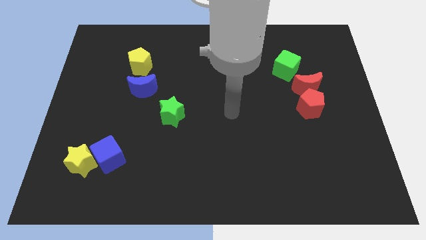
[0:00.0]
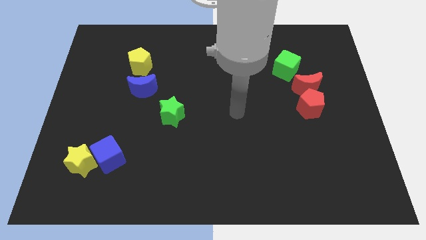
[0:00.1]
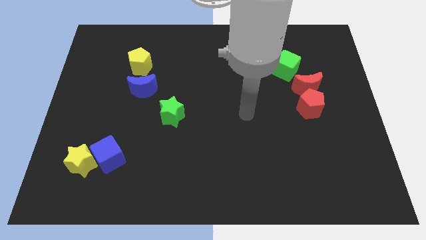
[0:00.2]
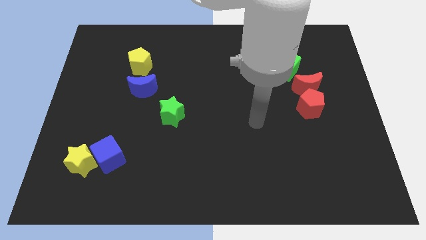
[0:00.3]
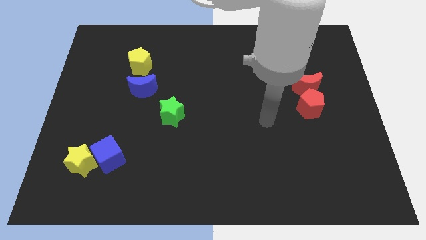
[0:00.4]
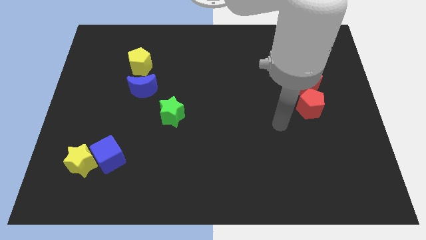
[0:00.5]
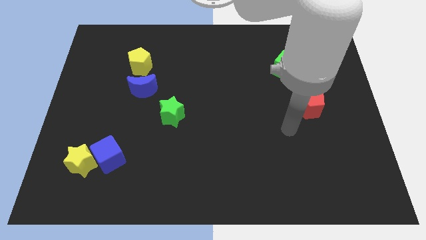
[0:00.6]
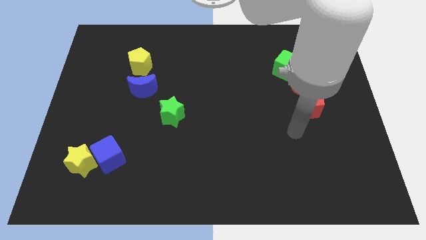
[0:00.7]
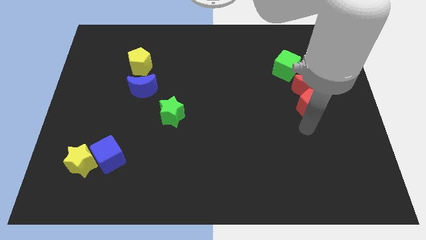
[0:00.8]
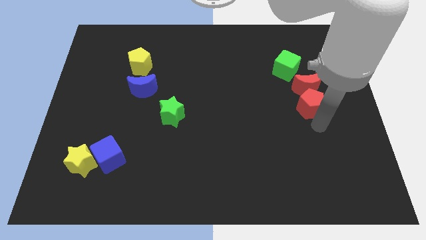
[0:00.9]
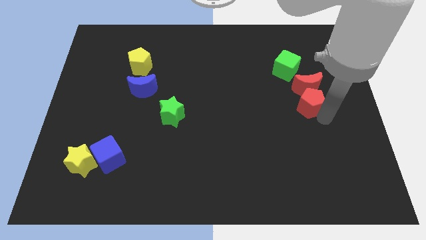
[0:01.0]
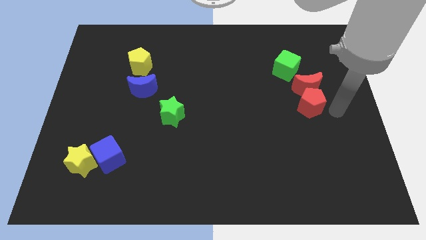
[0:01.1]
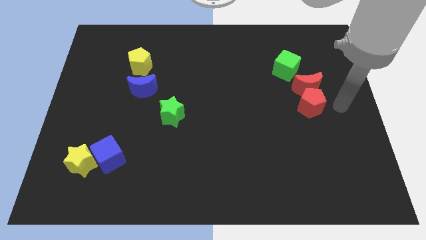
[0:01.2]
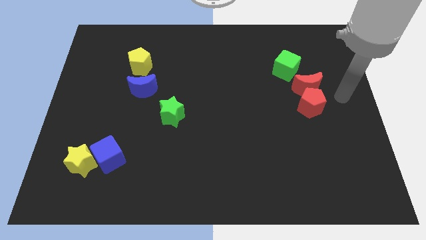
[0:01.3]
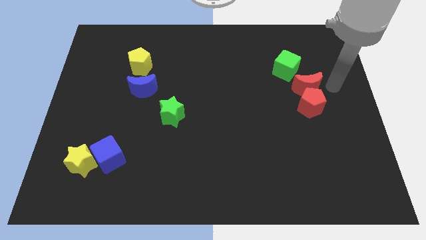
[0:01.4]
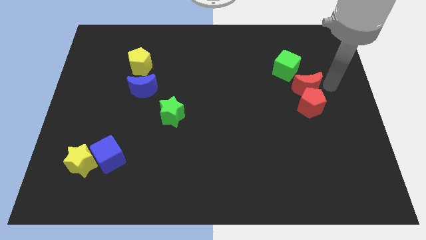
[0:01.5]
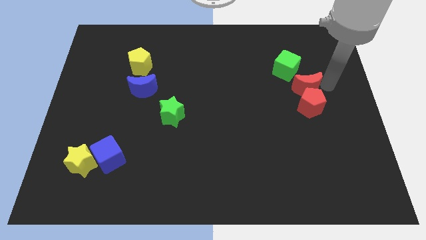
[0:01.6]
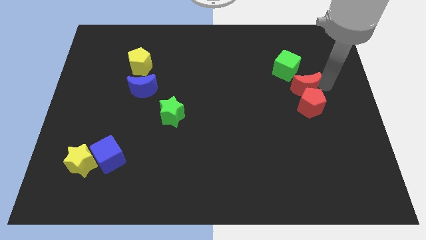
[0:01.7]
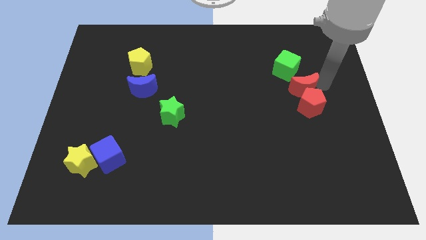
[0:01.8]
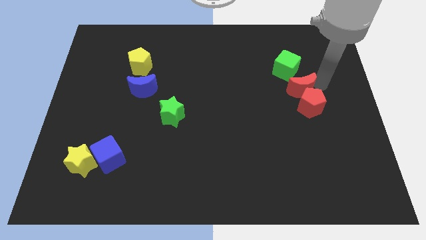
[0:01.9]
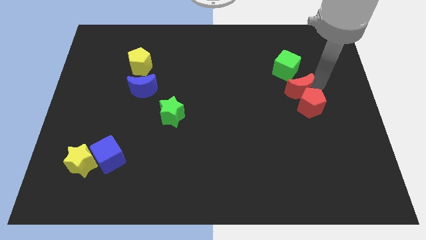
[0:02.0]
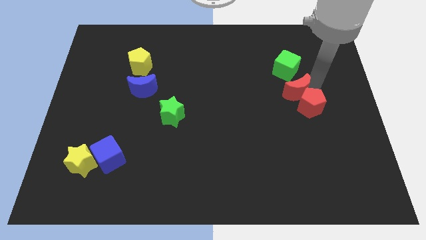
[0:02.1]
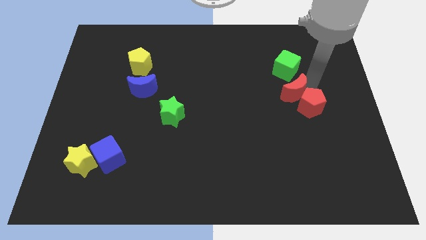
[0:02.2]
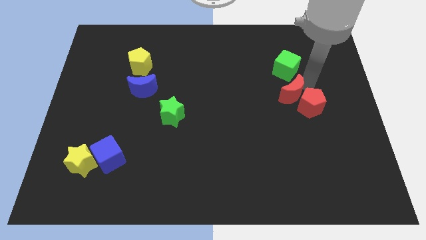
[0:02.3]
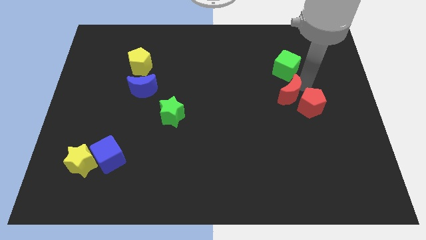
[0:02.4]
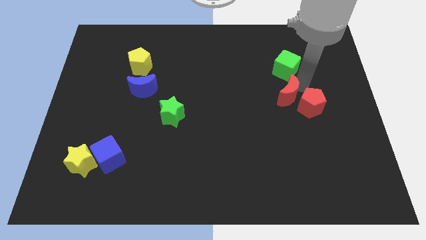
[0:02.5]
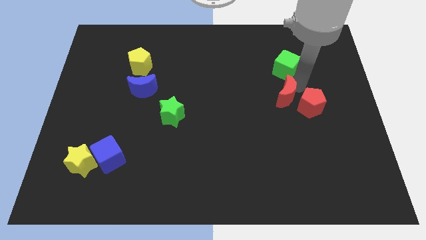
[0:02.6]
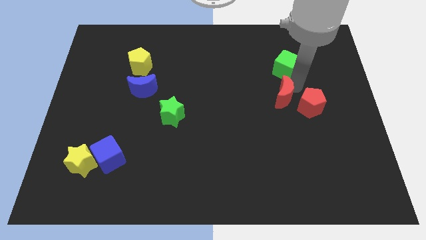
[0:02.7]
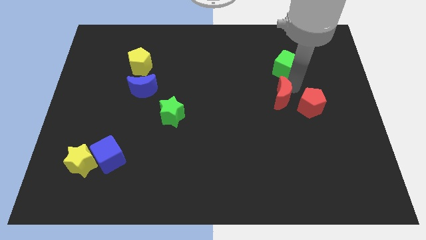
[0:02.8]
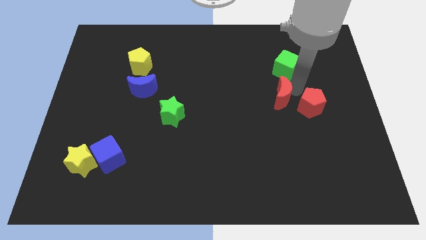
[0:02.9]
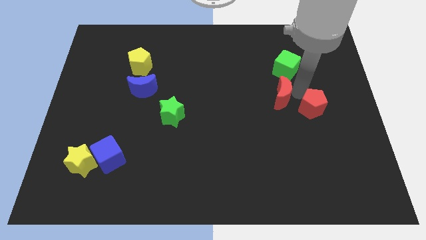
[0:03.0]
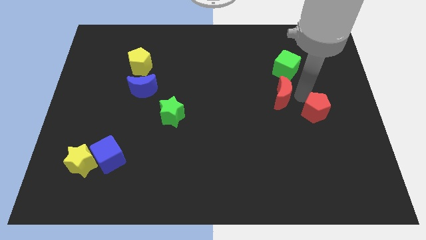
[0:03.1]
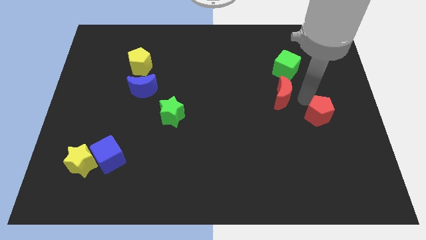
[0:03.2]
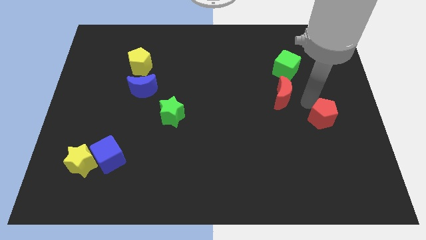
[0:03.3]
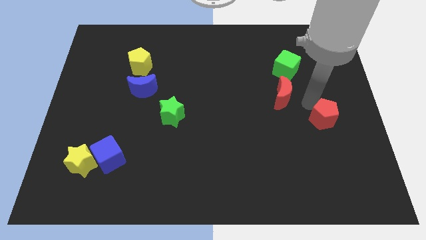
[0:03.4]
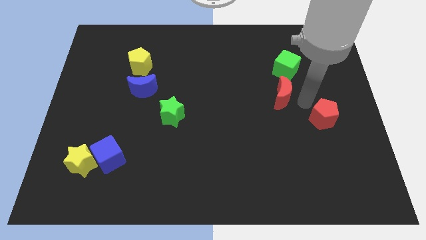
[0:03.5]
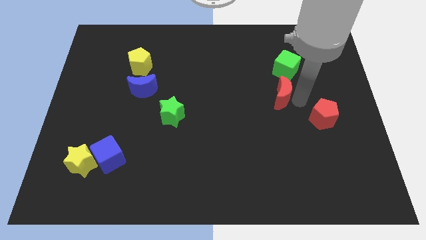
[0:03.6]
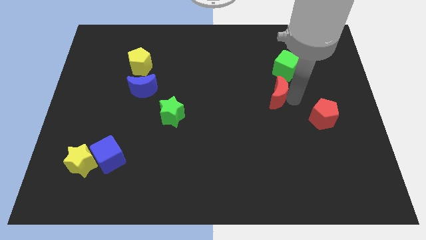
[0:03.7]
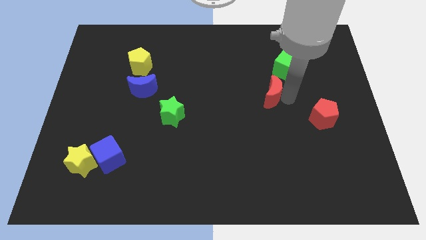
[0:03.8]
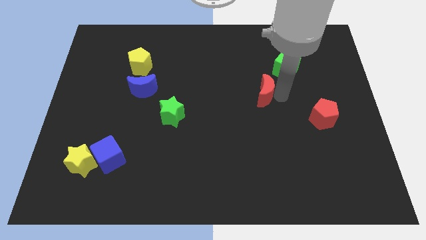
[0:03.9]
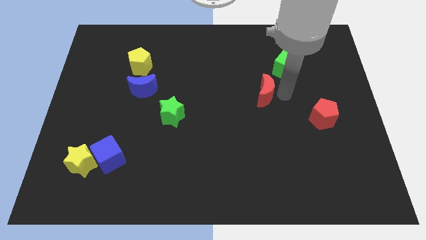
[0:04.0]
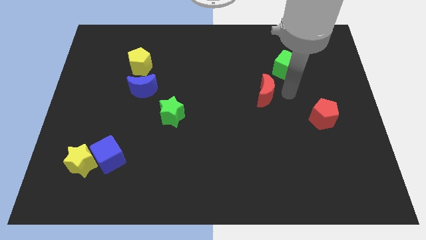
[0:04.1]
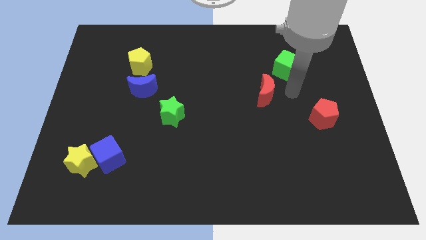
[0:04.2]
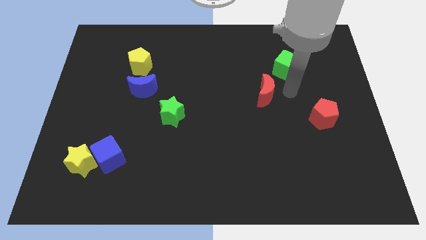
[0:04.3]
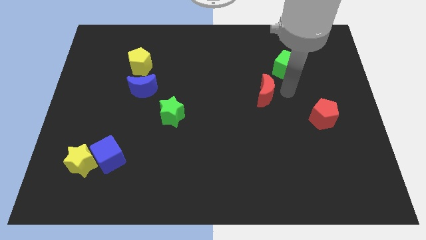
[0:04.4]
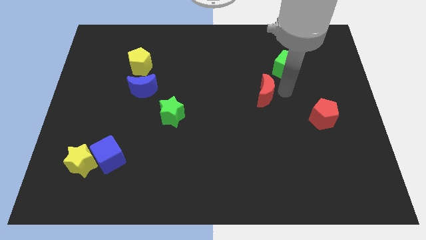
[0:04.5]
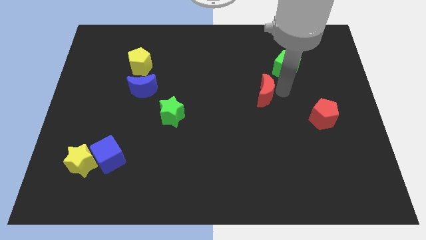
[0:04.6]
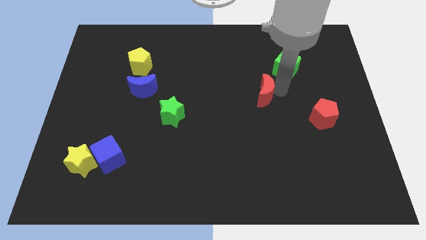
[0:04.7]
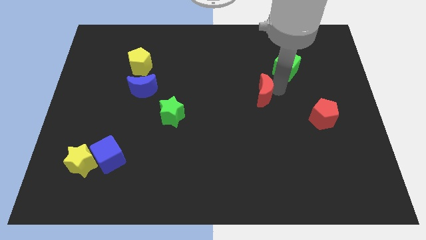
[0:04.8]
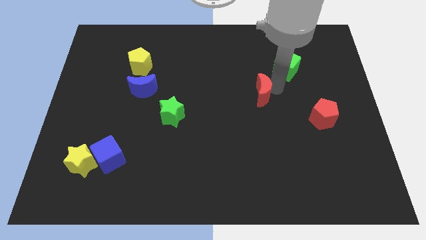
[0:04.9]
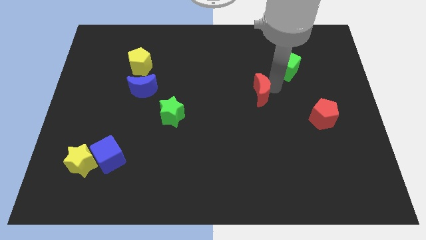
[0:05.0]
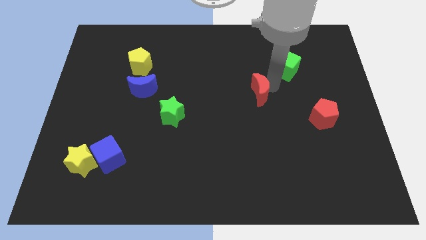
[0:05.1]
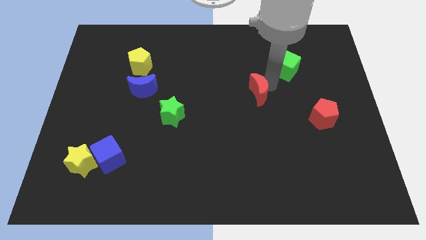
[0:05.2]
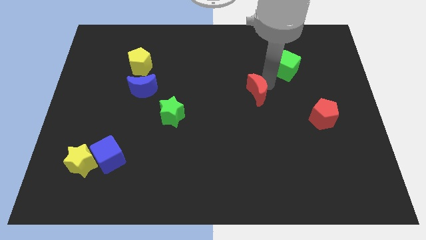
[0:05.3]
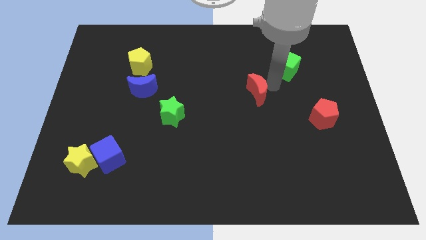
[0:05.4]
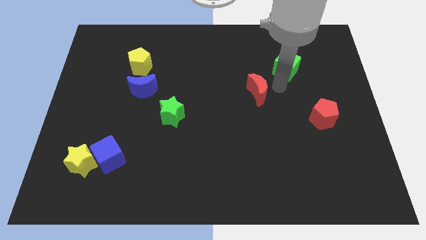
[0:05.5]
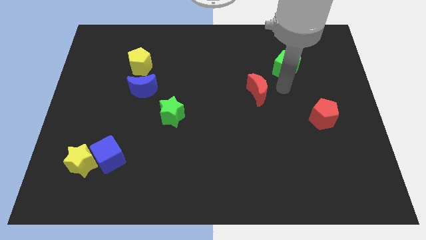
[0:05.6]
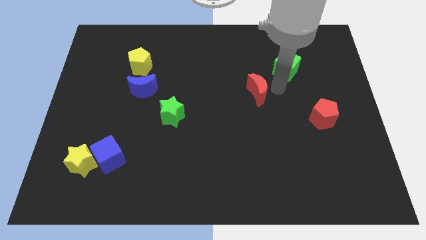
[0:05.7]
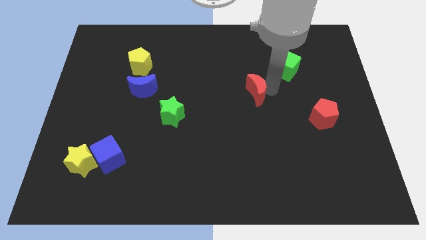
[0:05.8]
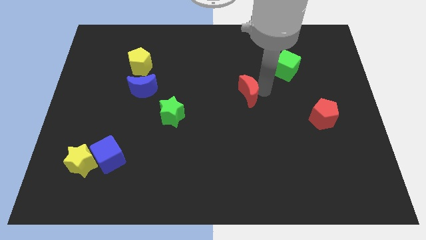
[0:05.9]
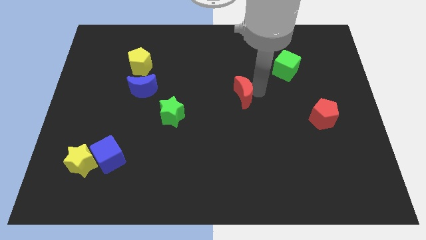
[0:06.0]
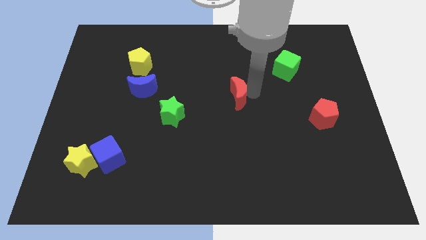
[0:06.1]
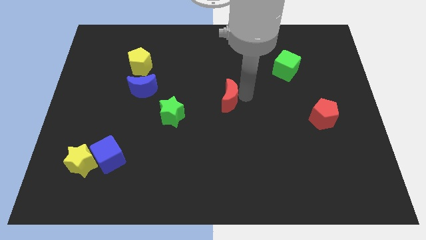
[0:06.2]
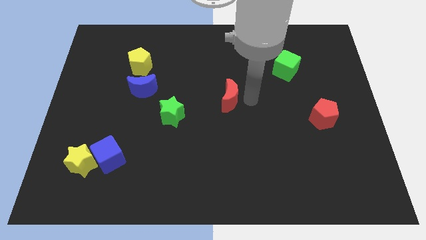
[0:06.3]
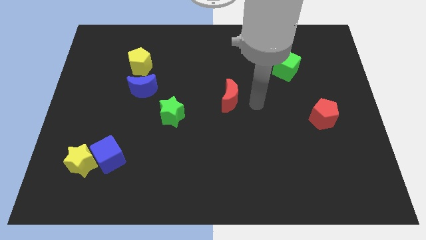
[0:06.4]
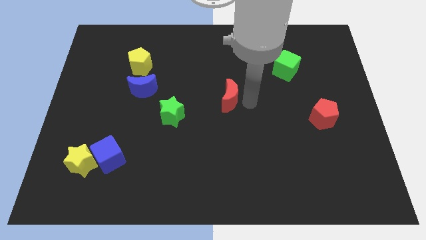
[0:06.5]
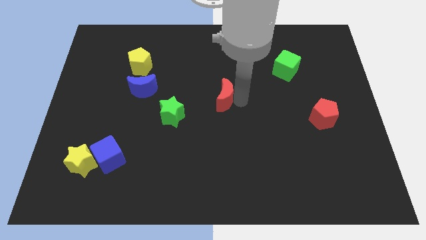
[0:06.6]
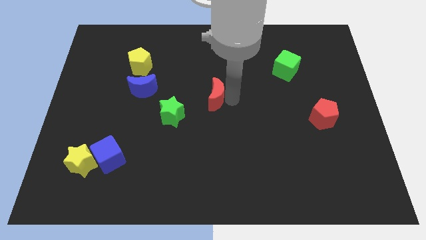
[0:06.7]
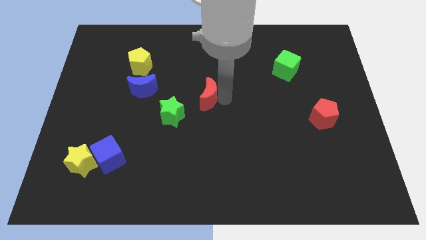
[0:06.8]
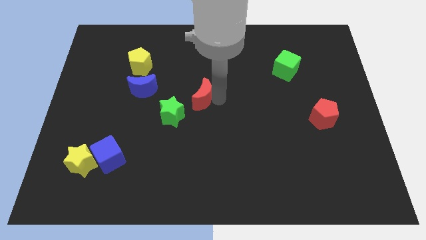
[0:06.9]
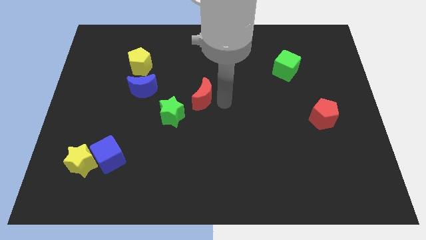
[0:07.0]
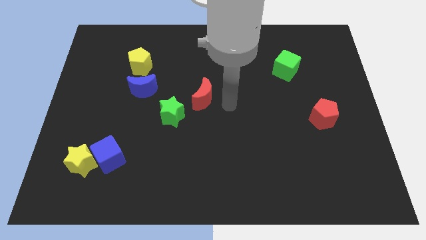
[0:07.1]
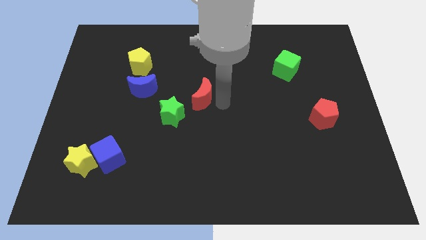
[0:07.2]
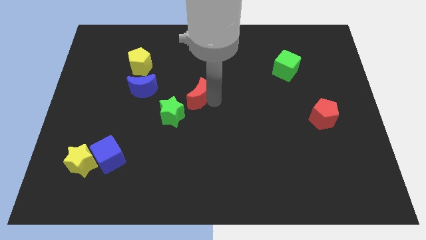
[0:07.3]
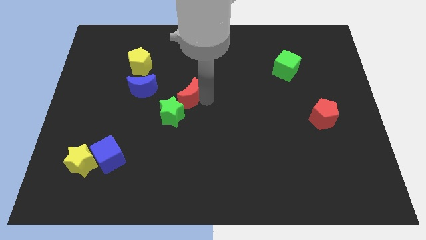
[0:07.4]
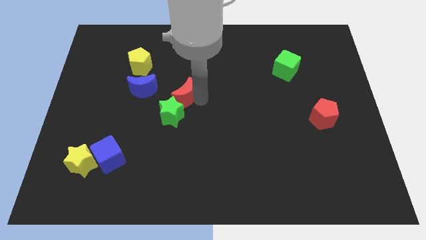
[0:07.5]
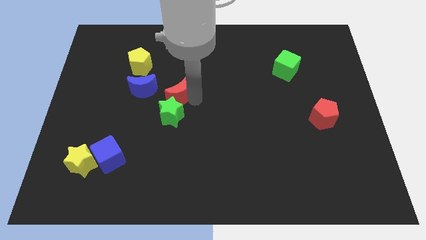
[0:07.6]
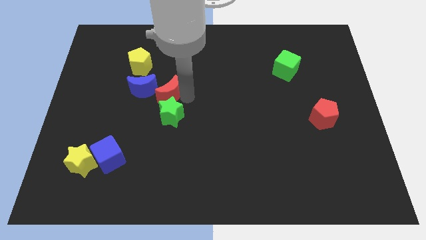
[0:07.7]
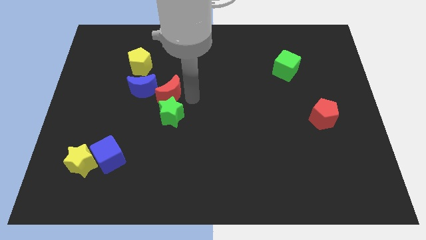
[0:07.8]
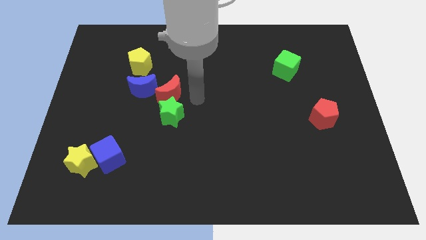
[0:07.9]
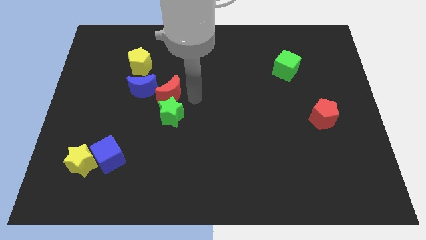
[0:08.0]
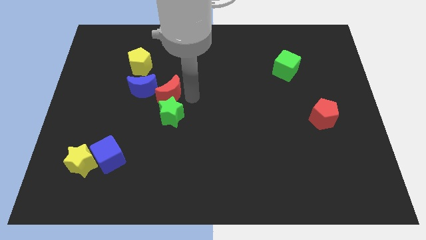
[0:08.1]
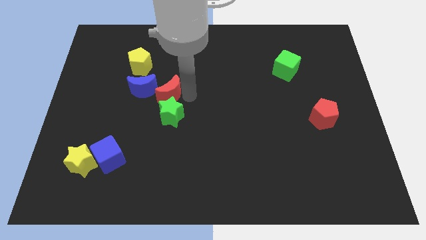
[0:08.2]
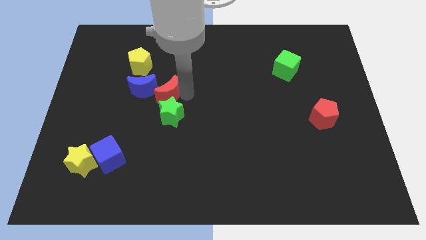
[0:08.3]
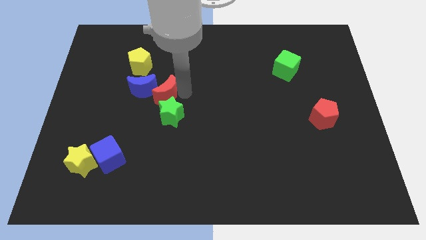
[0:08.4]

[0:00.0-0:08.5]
slide the red moon next to the blue moon
